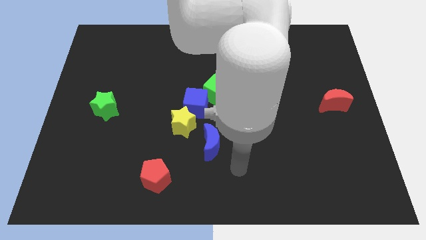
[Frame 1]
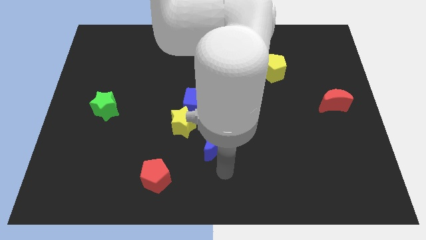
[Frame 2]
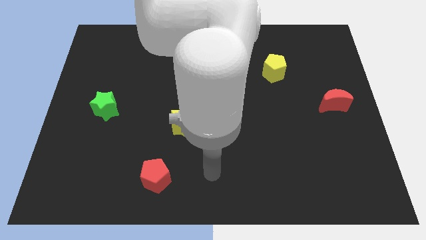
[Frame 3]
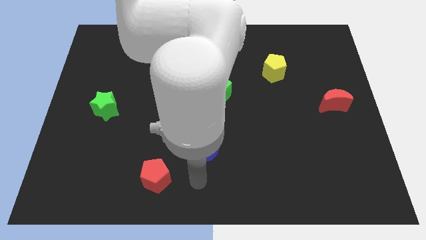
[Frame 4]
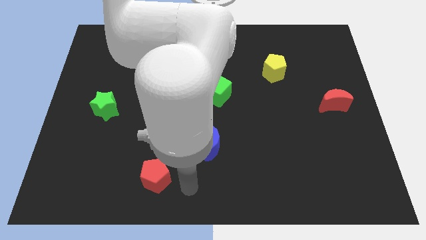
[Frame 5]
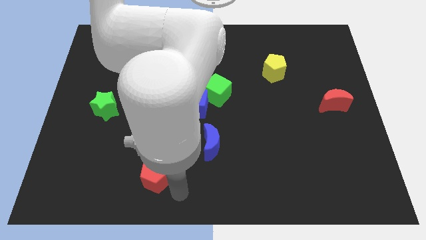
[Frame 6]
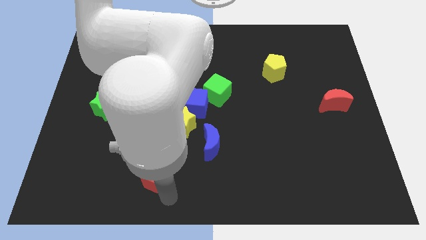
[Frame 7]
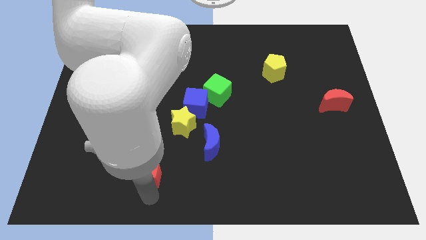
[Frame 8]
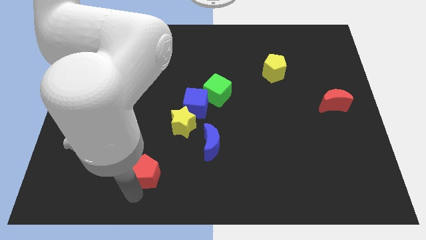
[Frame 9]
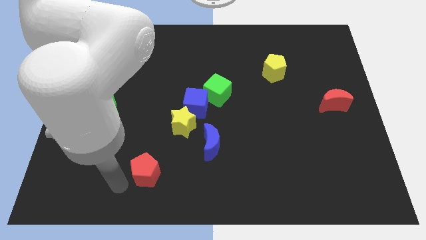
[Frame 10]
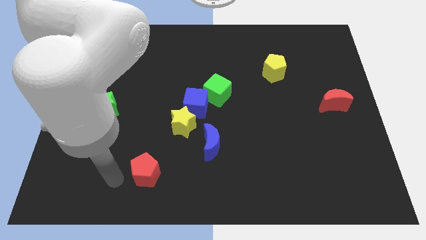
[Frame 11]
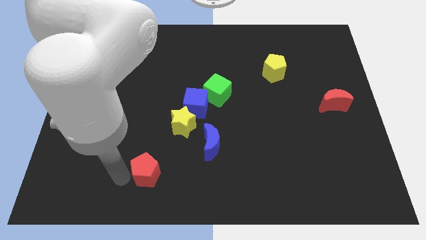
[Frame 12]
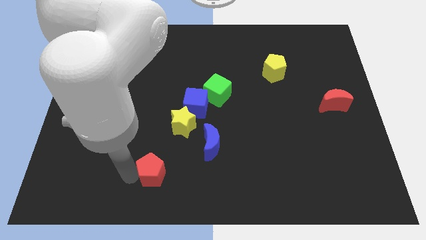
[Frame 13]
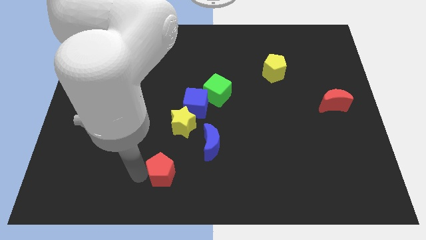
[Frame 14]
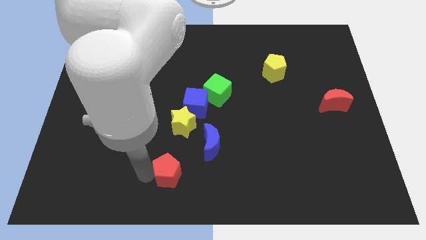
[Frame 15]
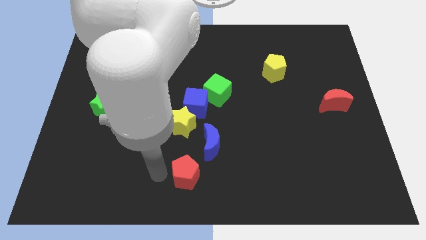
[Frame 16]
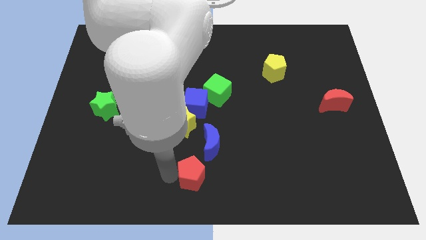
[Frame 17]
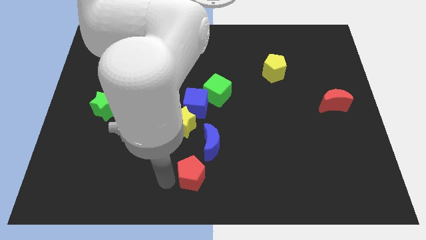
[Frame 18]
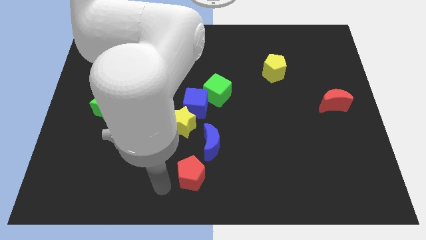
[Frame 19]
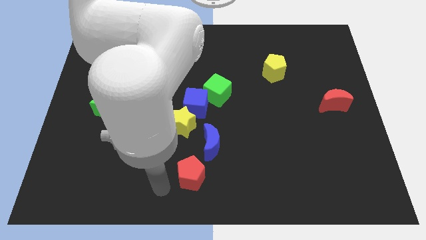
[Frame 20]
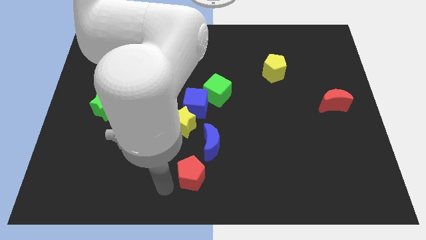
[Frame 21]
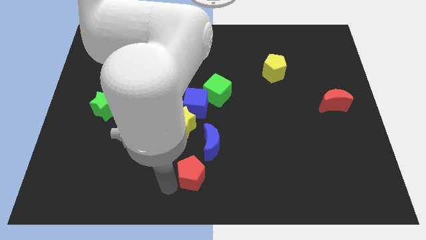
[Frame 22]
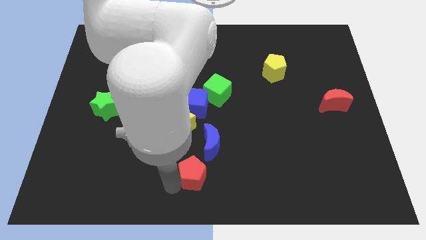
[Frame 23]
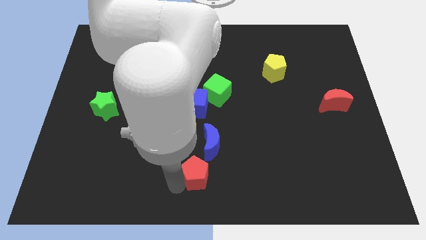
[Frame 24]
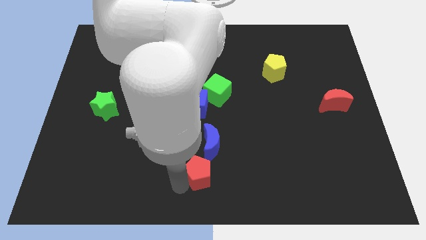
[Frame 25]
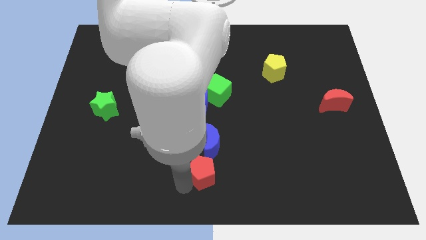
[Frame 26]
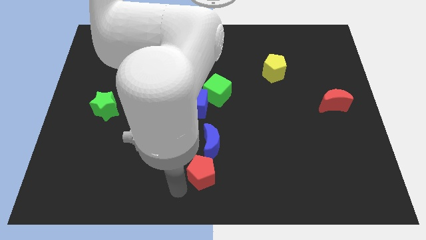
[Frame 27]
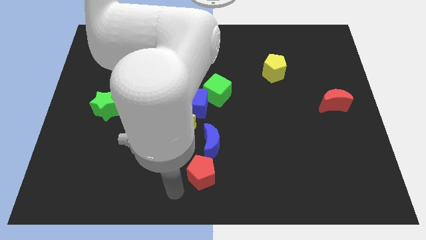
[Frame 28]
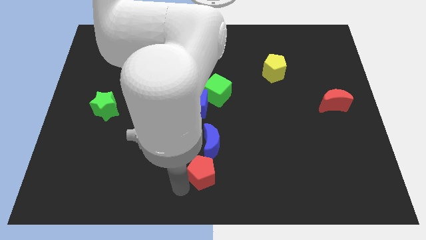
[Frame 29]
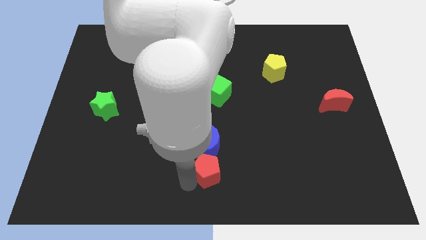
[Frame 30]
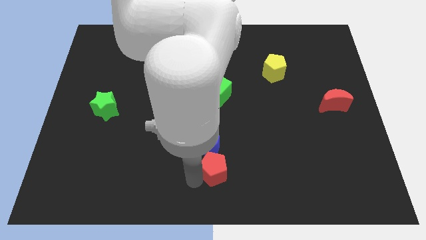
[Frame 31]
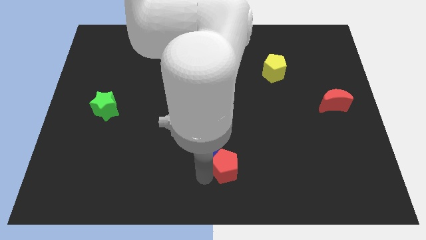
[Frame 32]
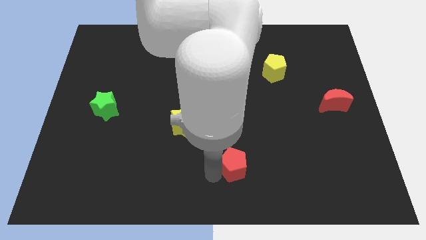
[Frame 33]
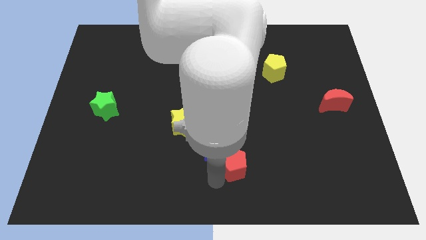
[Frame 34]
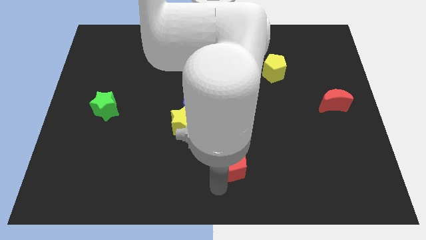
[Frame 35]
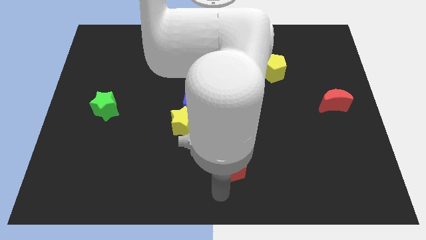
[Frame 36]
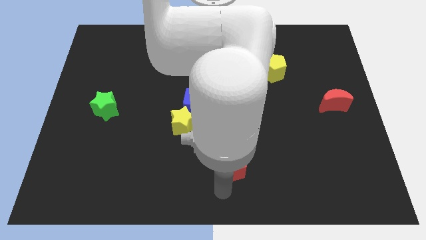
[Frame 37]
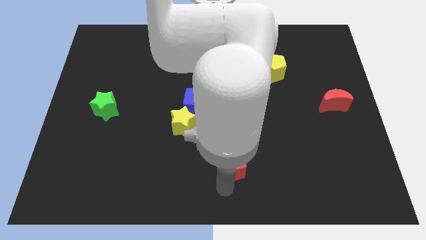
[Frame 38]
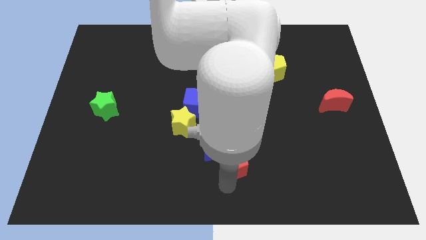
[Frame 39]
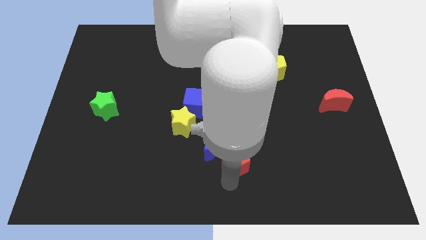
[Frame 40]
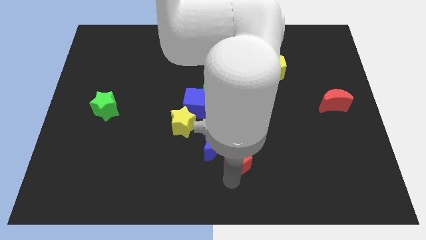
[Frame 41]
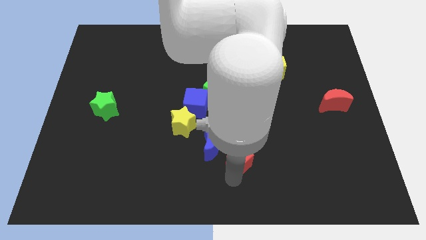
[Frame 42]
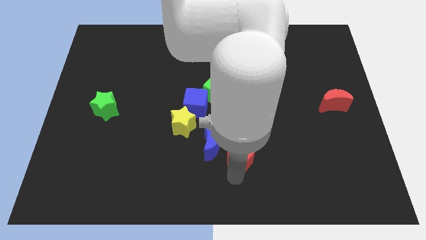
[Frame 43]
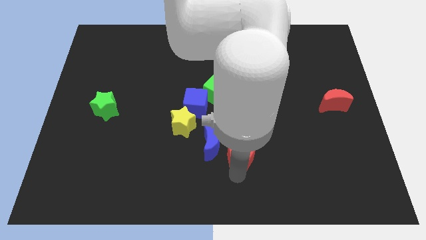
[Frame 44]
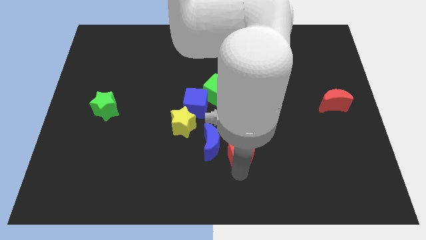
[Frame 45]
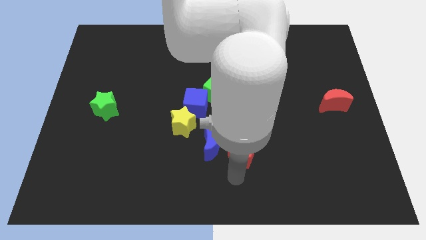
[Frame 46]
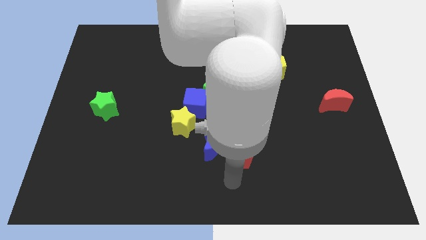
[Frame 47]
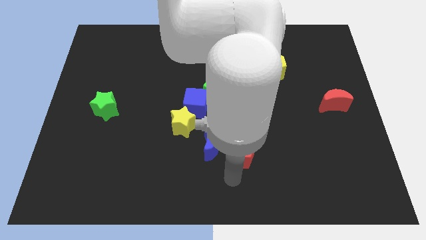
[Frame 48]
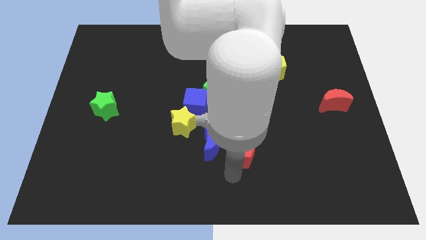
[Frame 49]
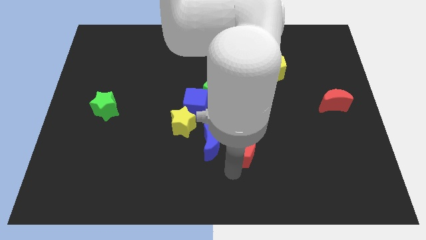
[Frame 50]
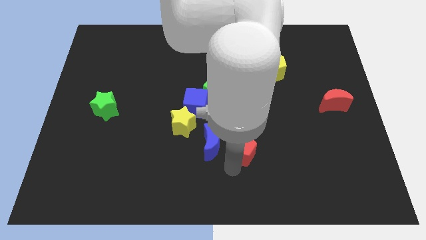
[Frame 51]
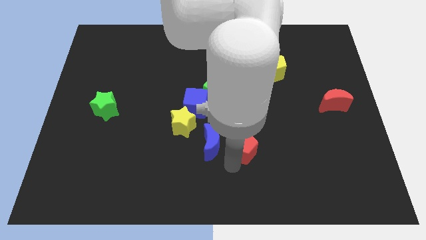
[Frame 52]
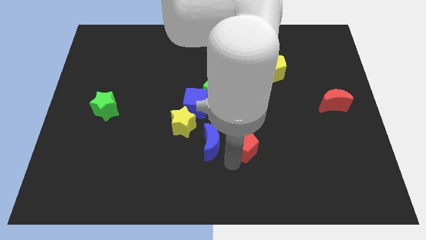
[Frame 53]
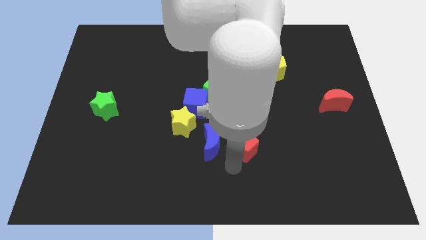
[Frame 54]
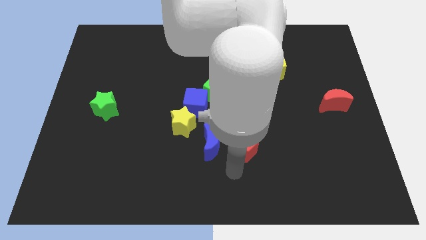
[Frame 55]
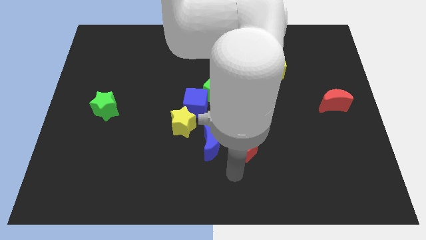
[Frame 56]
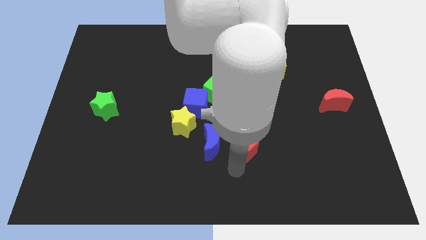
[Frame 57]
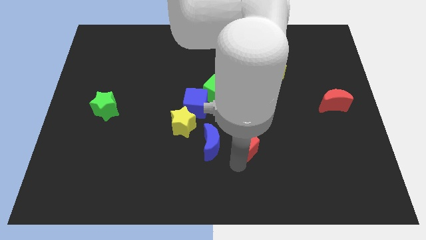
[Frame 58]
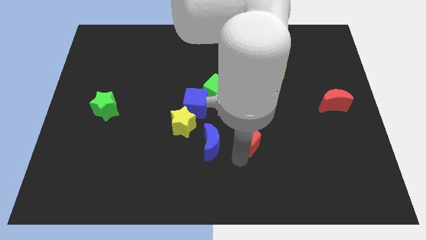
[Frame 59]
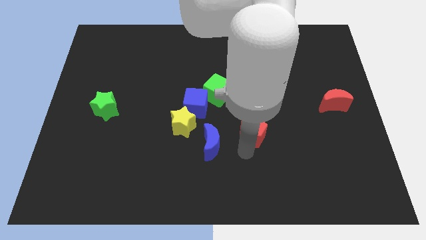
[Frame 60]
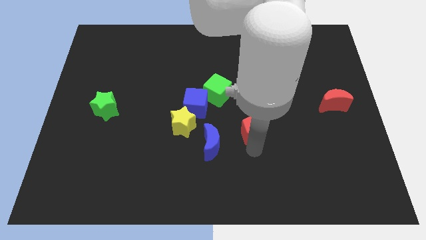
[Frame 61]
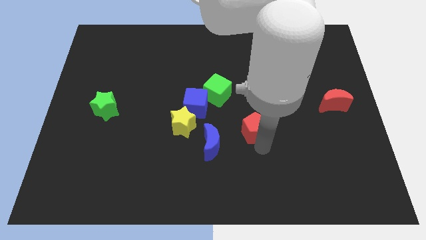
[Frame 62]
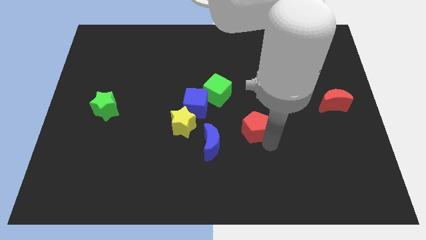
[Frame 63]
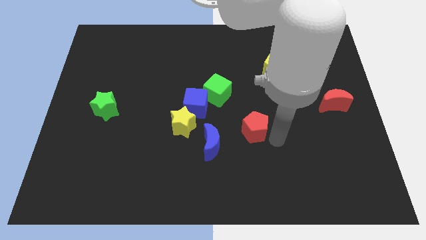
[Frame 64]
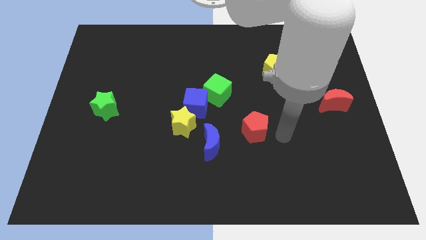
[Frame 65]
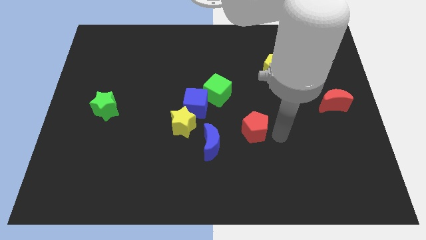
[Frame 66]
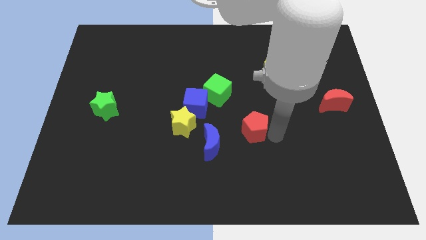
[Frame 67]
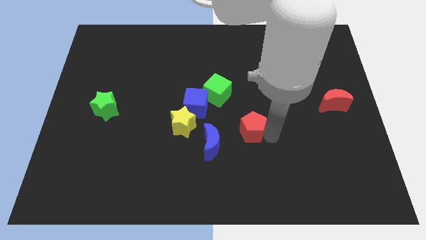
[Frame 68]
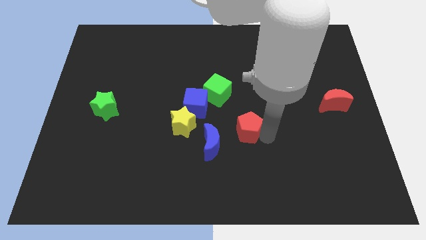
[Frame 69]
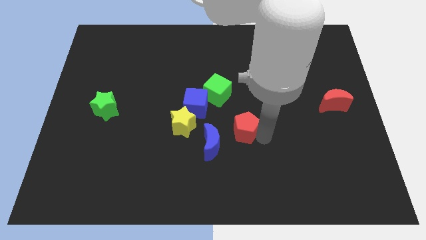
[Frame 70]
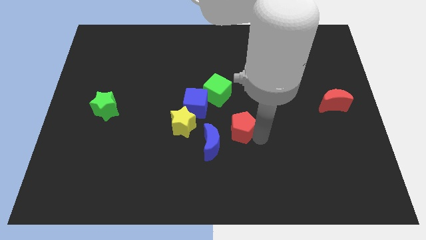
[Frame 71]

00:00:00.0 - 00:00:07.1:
slide the red pentagon to the bottom right side of the blue cube
